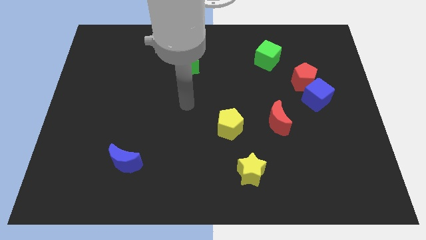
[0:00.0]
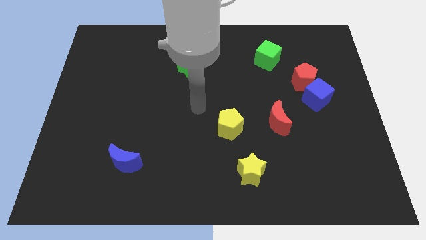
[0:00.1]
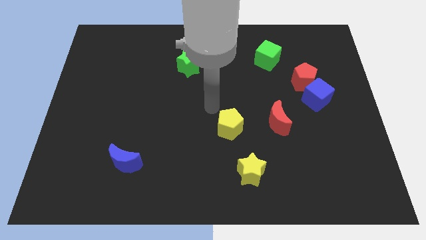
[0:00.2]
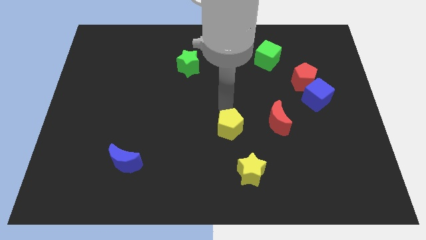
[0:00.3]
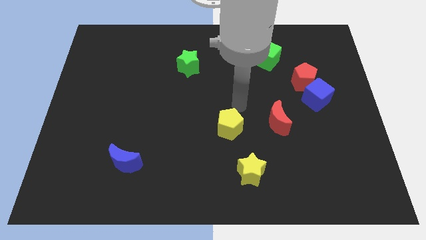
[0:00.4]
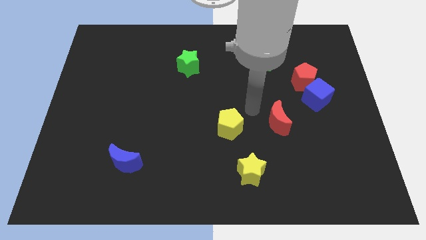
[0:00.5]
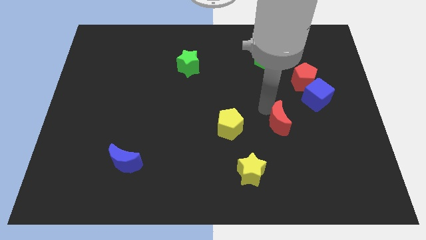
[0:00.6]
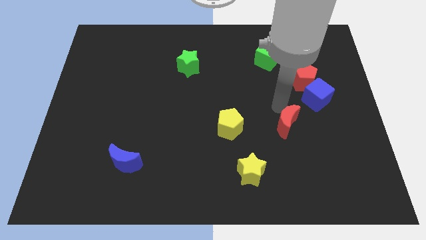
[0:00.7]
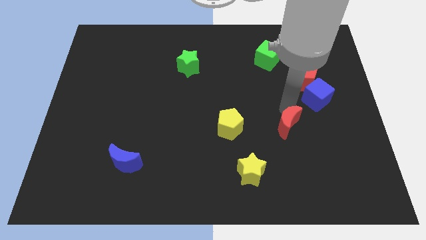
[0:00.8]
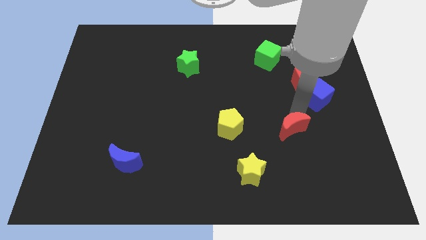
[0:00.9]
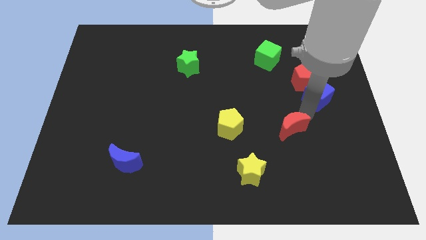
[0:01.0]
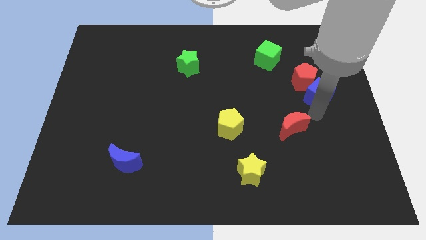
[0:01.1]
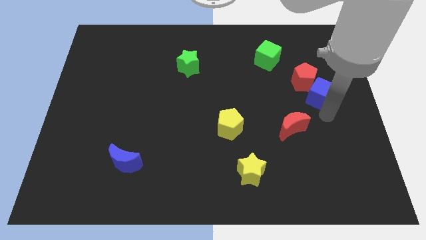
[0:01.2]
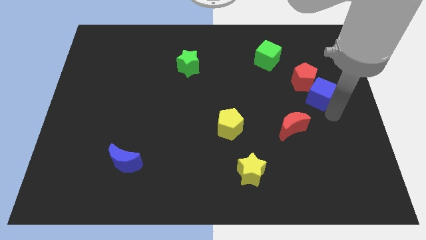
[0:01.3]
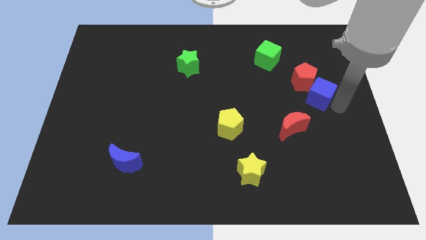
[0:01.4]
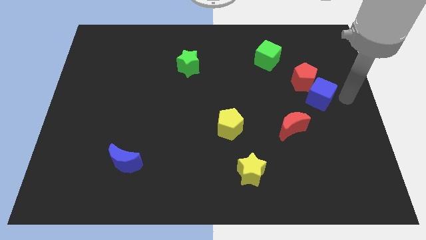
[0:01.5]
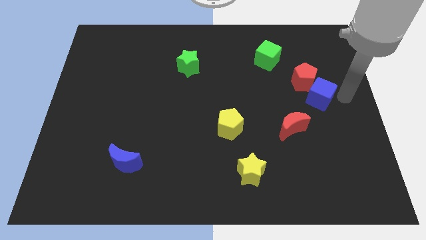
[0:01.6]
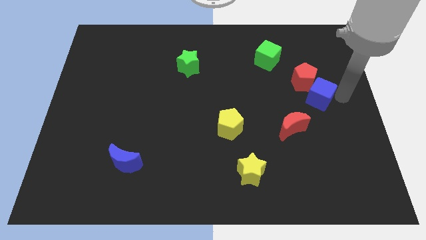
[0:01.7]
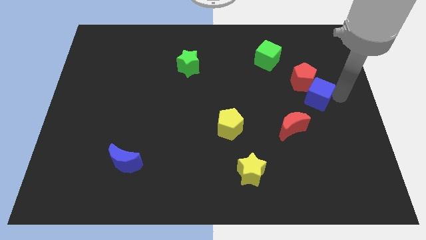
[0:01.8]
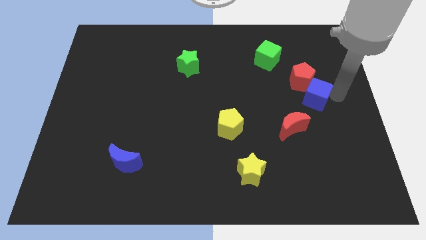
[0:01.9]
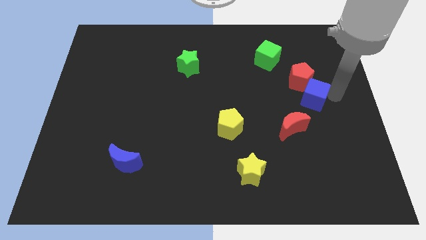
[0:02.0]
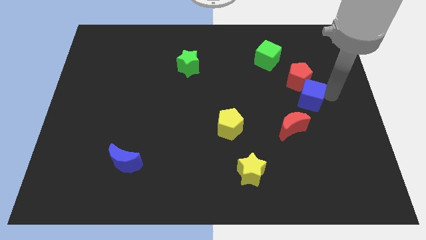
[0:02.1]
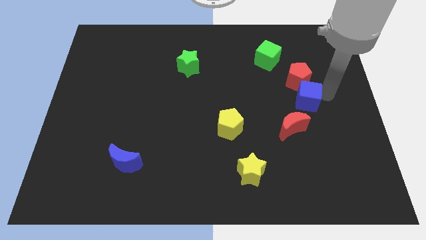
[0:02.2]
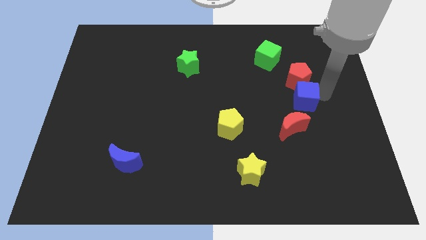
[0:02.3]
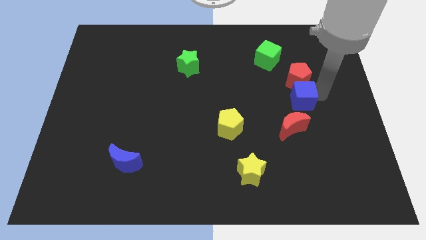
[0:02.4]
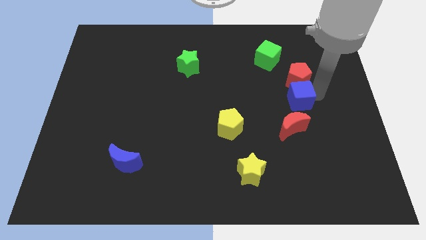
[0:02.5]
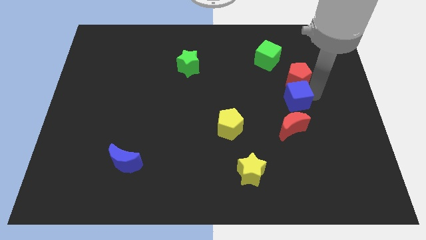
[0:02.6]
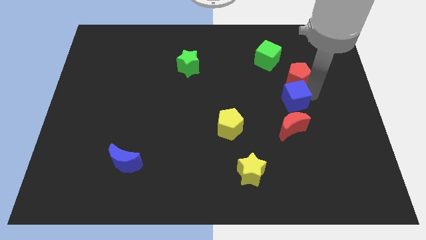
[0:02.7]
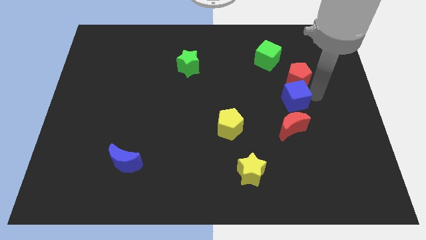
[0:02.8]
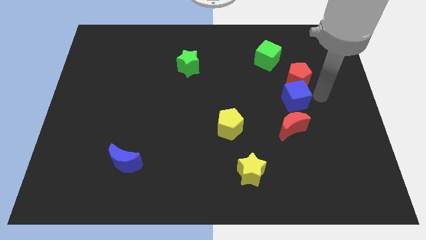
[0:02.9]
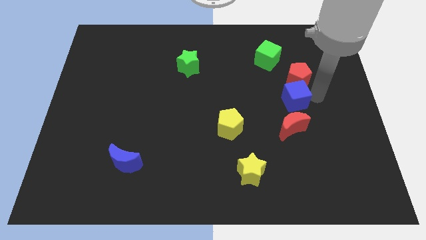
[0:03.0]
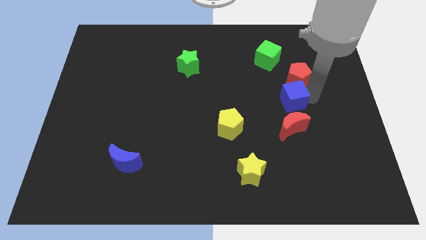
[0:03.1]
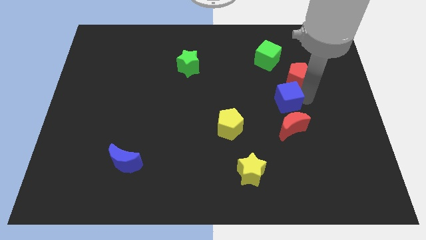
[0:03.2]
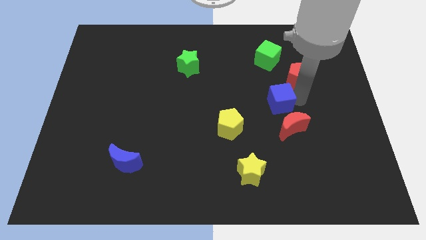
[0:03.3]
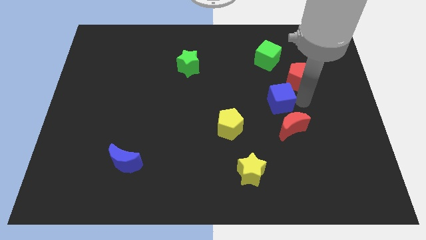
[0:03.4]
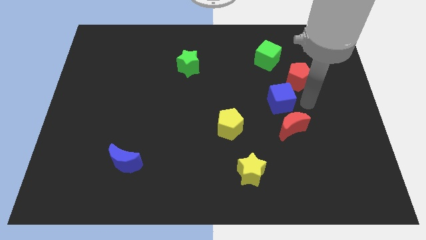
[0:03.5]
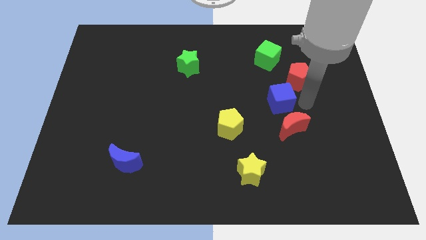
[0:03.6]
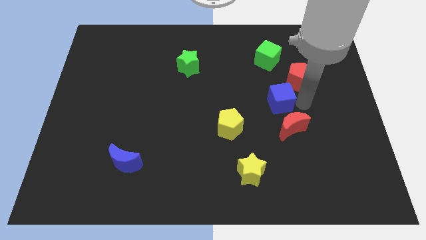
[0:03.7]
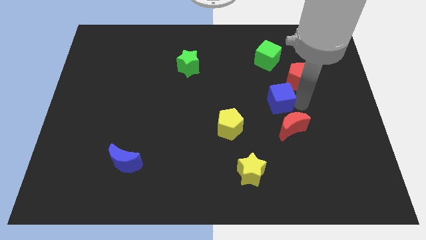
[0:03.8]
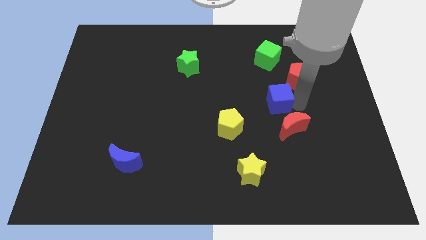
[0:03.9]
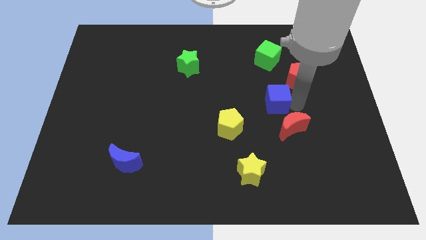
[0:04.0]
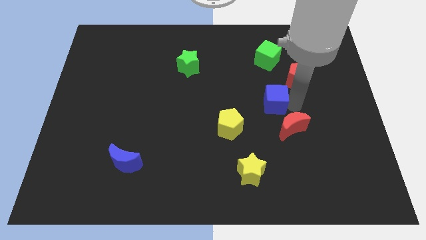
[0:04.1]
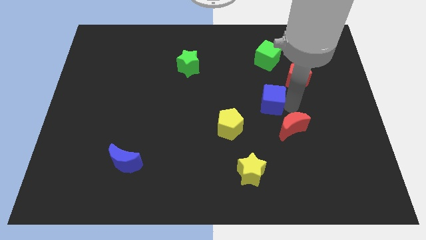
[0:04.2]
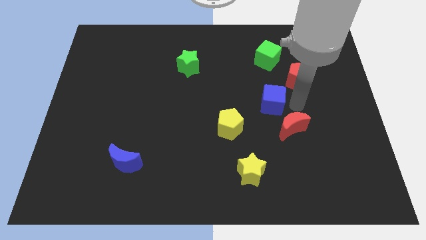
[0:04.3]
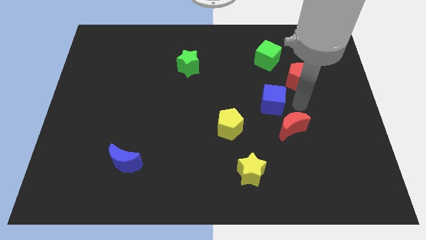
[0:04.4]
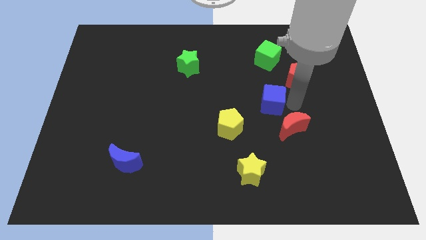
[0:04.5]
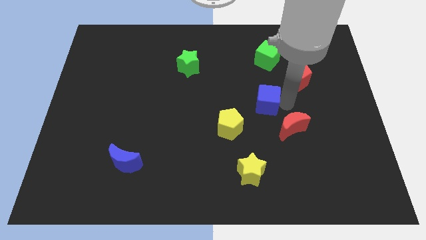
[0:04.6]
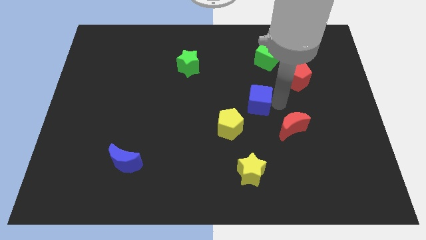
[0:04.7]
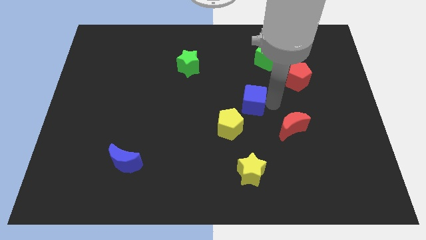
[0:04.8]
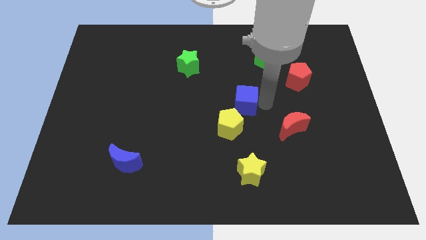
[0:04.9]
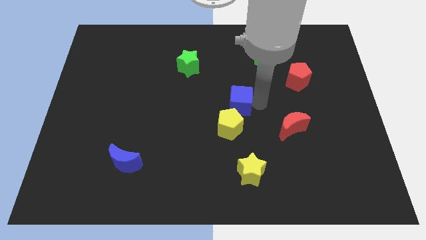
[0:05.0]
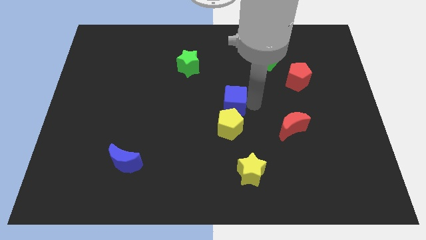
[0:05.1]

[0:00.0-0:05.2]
push the blue cube left

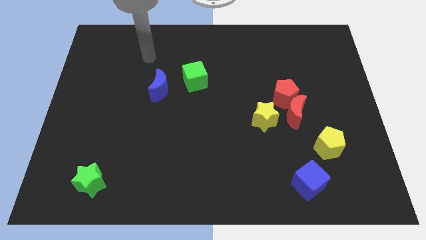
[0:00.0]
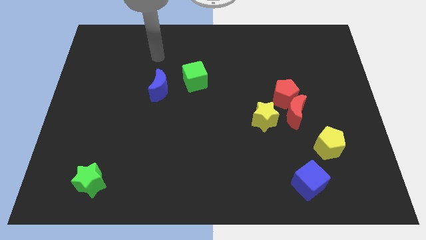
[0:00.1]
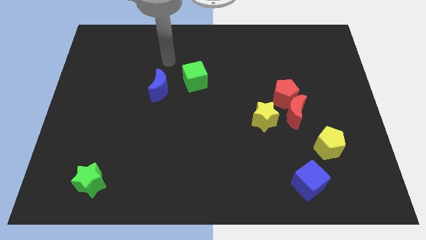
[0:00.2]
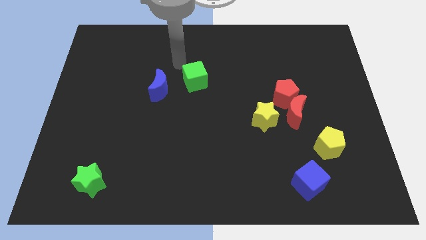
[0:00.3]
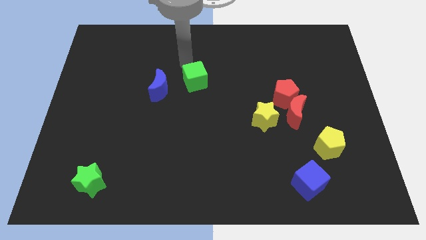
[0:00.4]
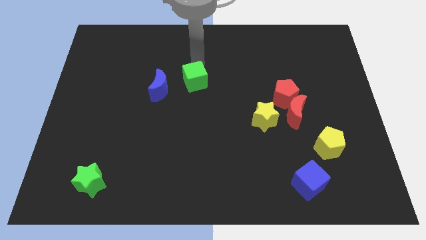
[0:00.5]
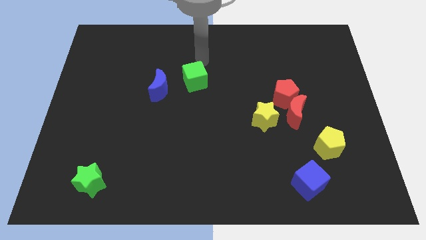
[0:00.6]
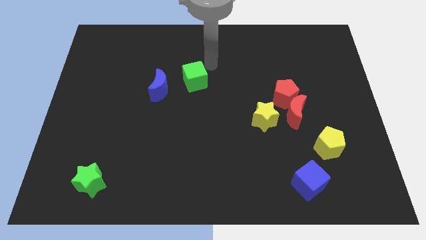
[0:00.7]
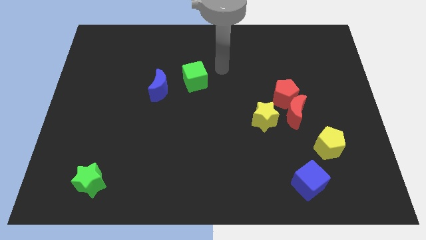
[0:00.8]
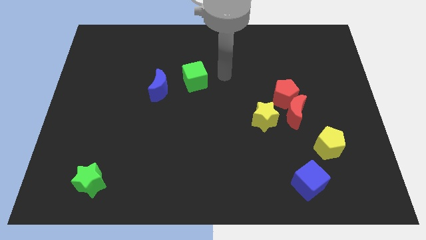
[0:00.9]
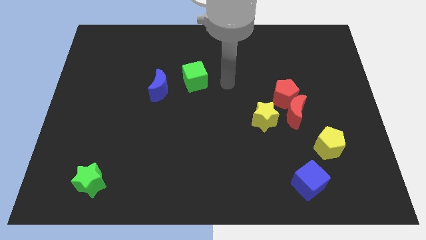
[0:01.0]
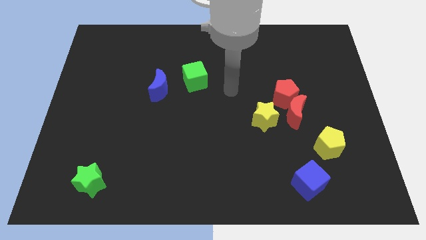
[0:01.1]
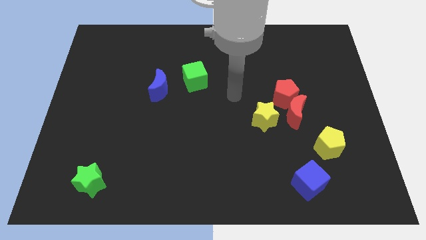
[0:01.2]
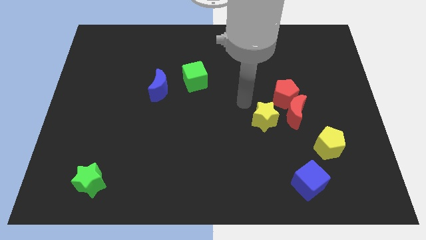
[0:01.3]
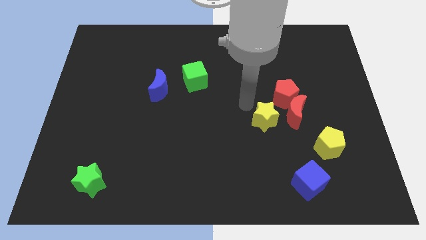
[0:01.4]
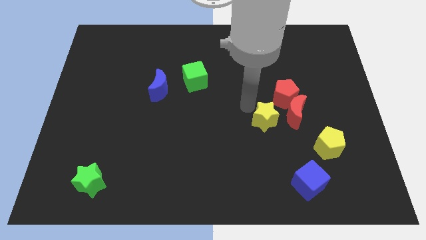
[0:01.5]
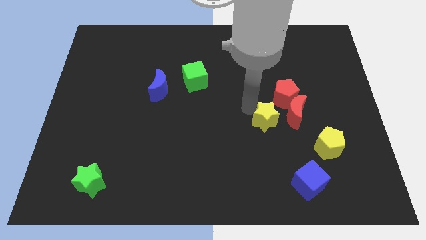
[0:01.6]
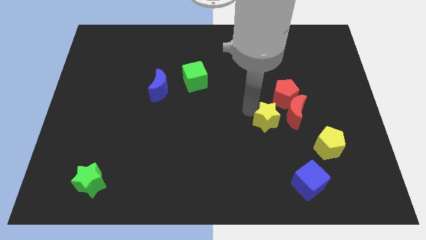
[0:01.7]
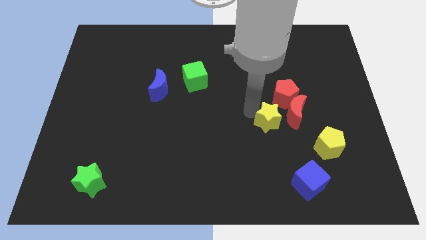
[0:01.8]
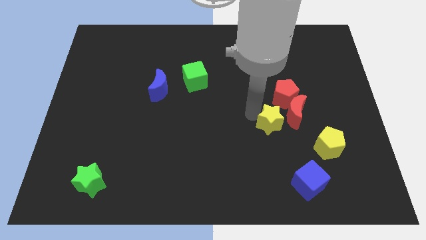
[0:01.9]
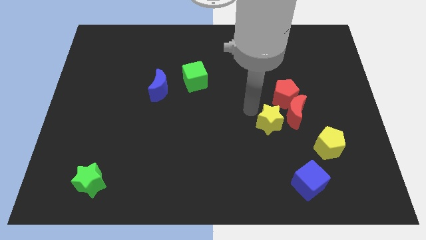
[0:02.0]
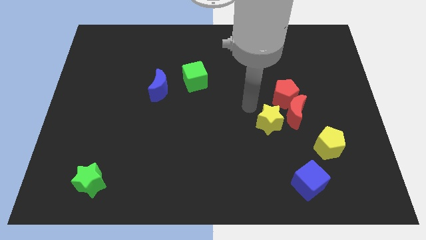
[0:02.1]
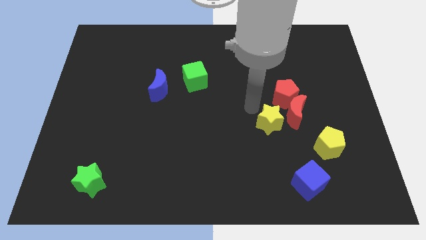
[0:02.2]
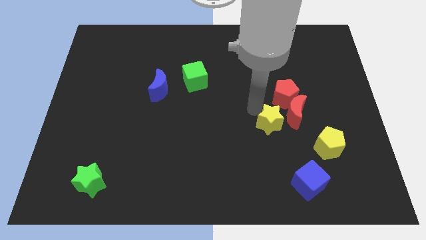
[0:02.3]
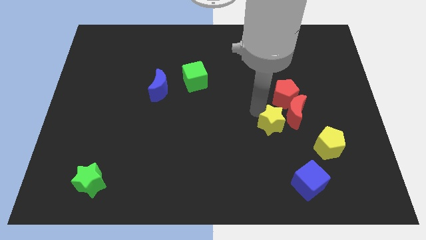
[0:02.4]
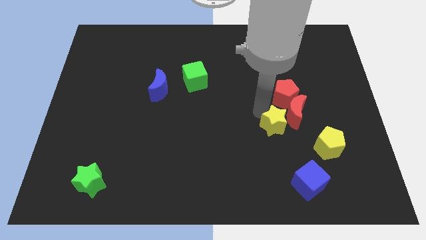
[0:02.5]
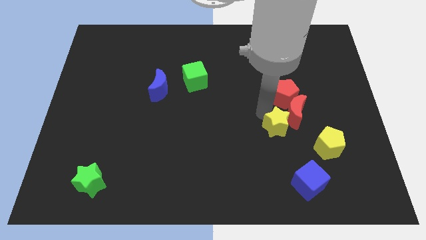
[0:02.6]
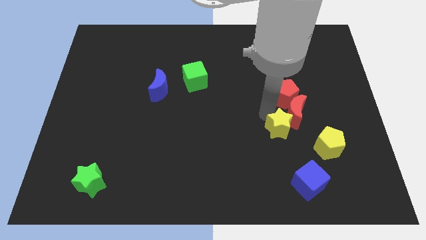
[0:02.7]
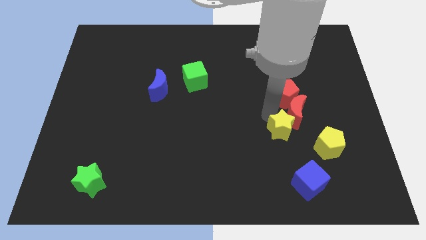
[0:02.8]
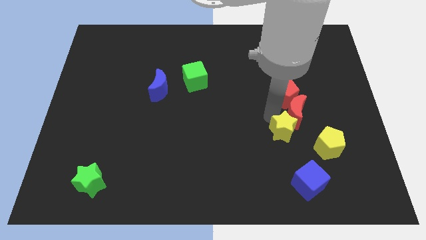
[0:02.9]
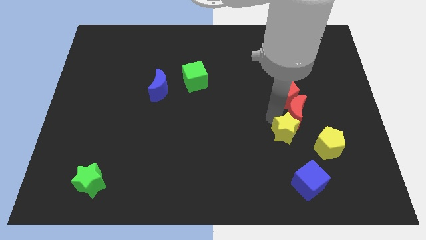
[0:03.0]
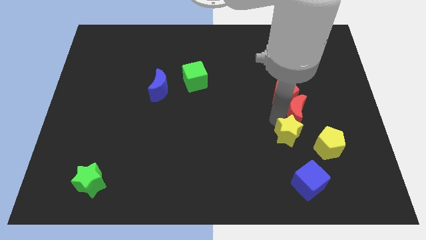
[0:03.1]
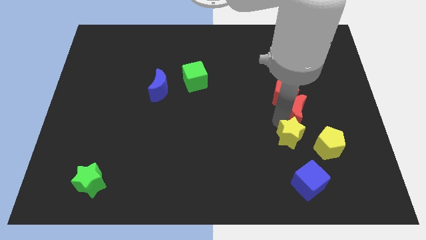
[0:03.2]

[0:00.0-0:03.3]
slightly slide the yellow star down and then to the right
